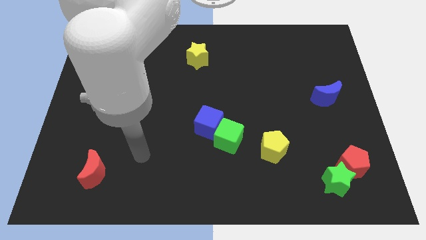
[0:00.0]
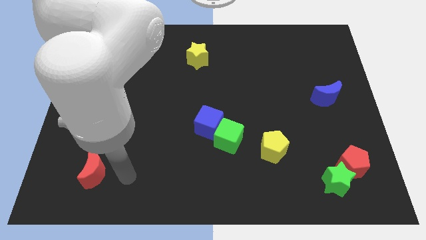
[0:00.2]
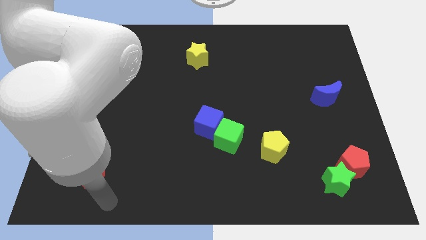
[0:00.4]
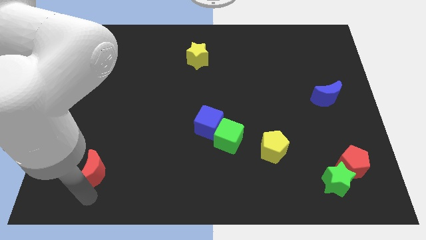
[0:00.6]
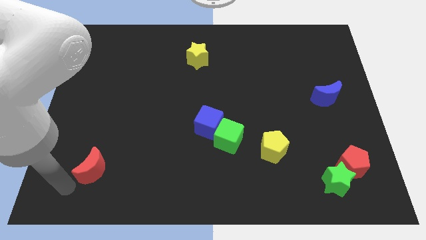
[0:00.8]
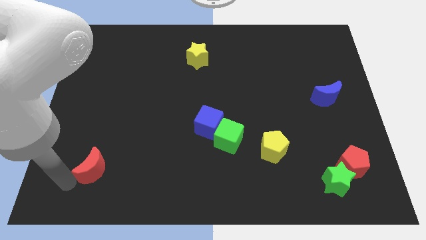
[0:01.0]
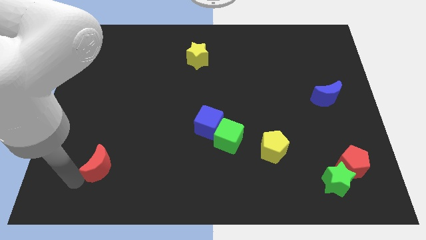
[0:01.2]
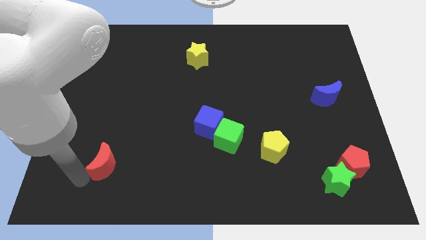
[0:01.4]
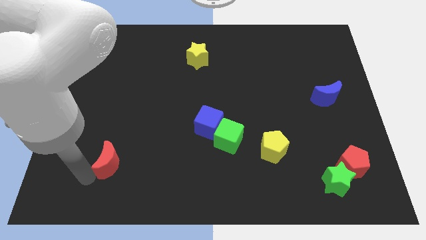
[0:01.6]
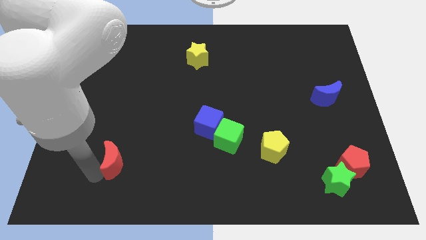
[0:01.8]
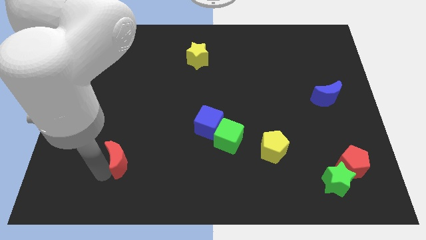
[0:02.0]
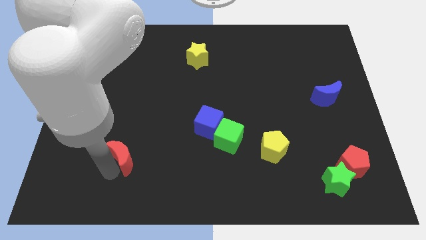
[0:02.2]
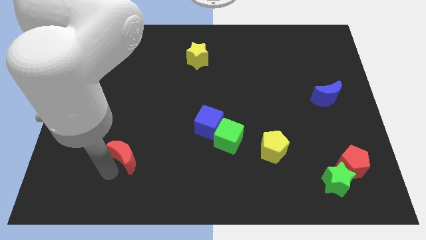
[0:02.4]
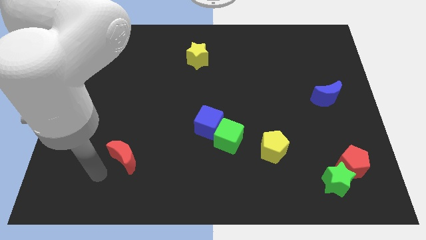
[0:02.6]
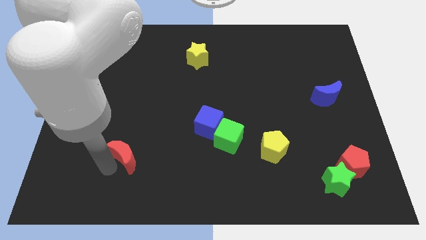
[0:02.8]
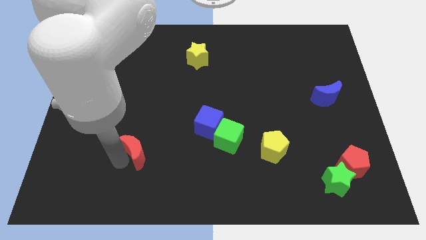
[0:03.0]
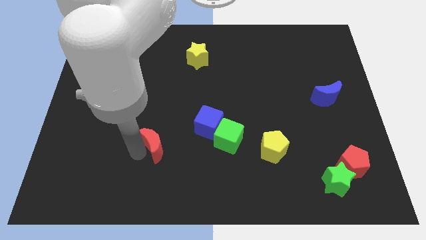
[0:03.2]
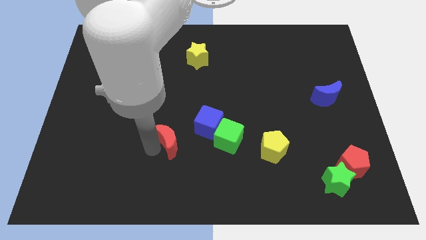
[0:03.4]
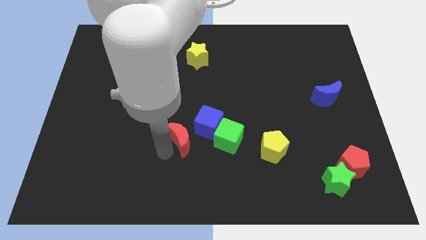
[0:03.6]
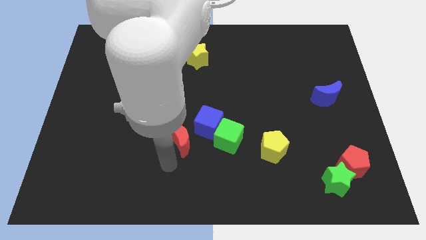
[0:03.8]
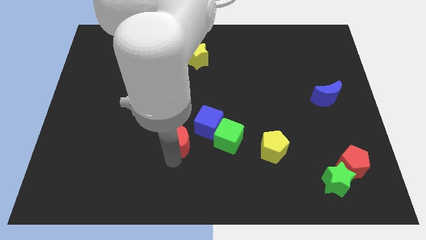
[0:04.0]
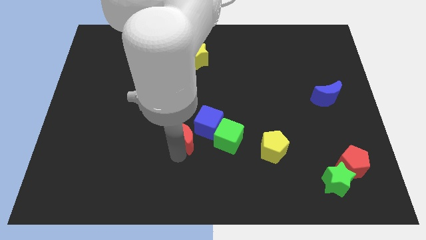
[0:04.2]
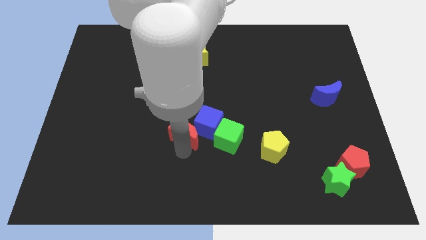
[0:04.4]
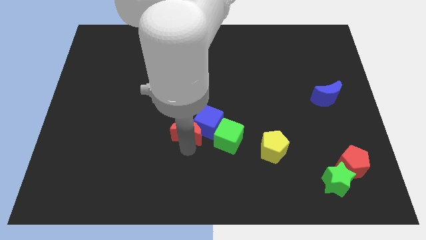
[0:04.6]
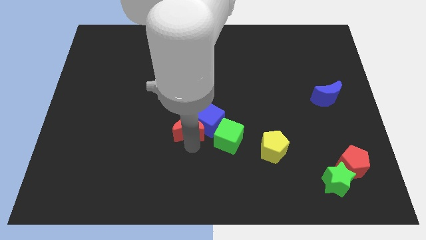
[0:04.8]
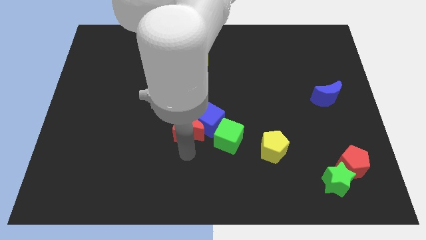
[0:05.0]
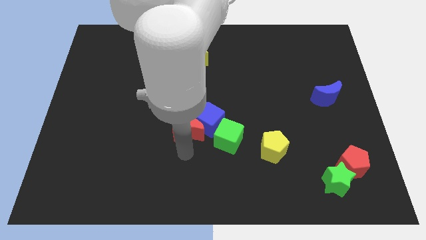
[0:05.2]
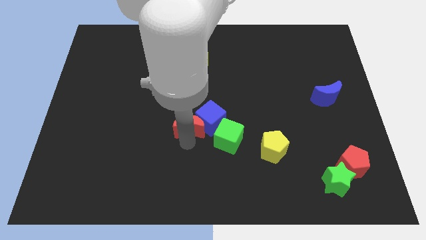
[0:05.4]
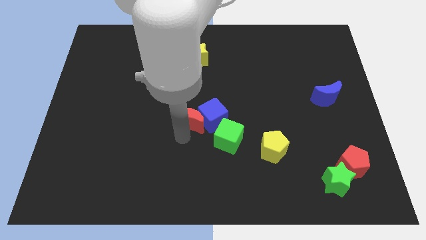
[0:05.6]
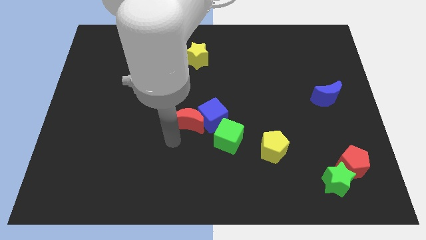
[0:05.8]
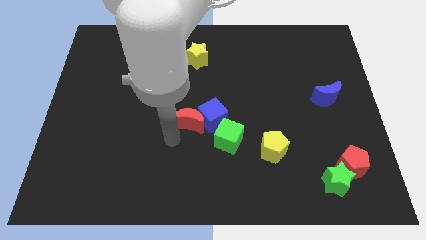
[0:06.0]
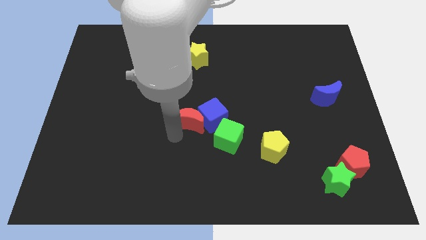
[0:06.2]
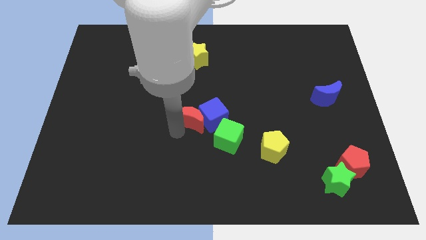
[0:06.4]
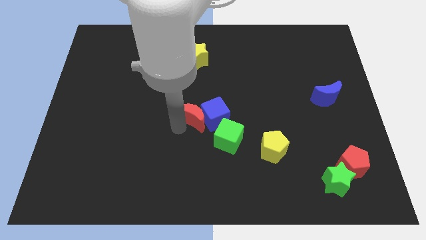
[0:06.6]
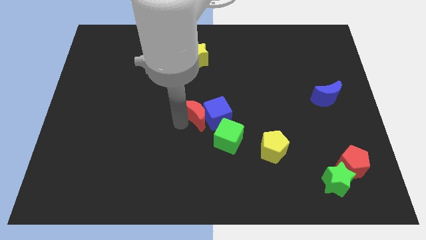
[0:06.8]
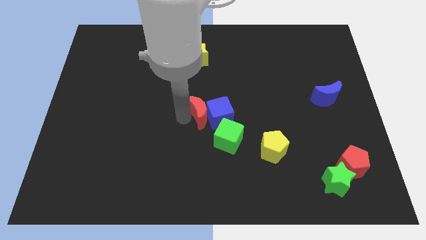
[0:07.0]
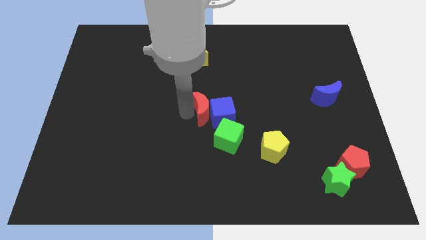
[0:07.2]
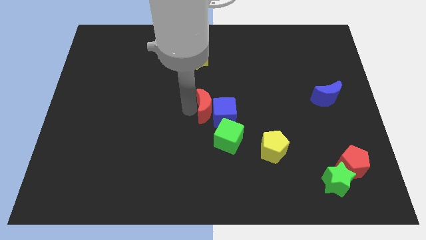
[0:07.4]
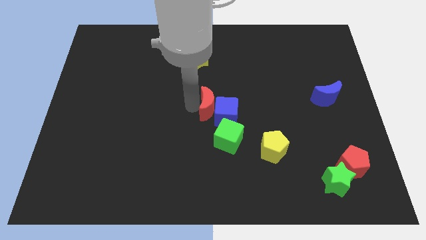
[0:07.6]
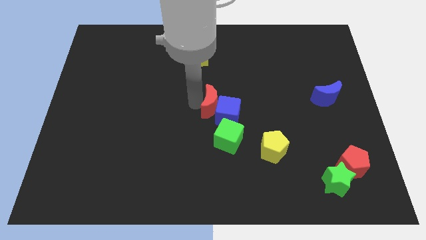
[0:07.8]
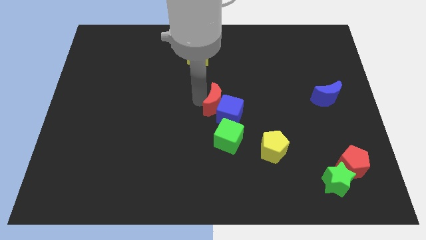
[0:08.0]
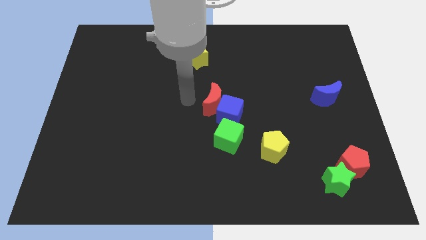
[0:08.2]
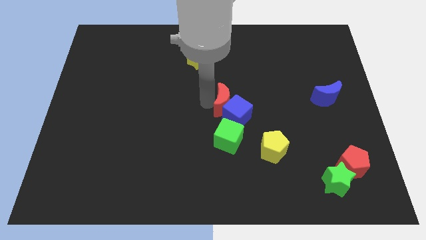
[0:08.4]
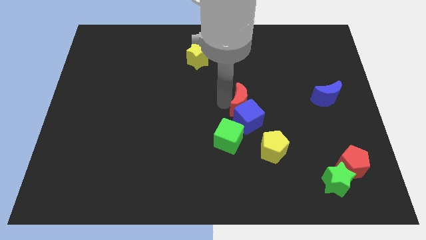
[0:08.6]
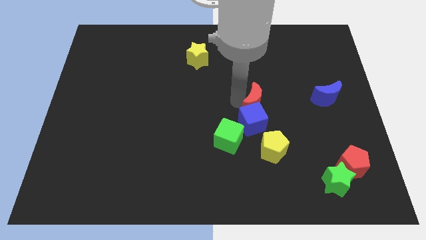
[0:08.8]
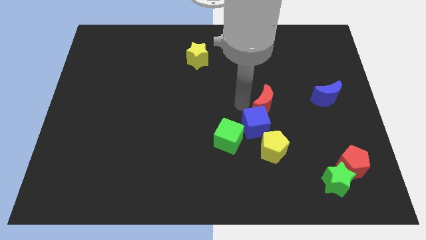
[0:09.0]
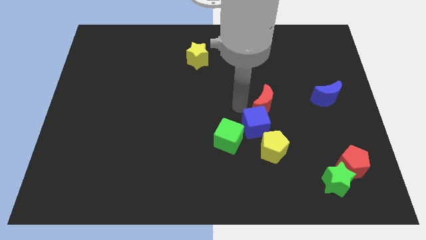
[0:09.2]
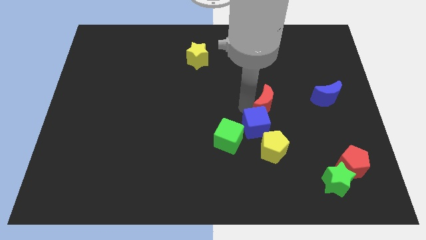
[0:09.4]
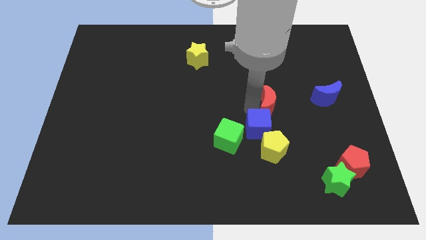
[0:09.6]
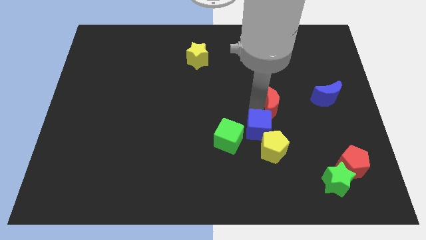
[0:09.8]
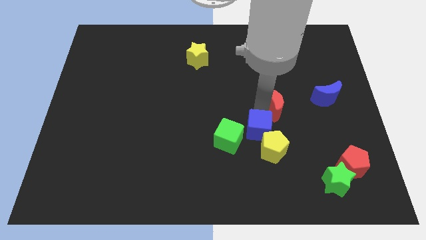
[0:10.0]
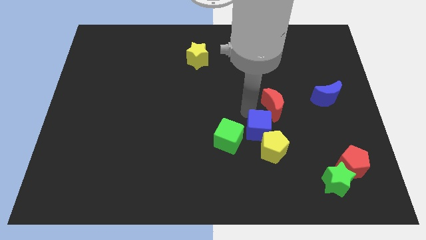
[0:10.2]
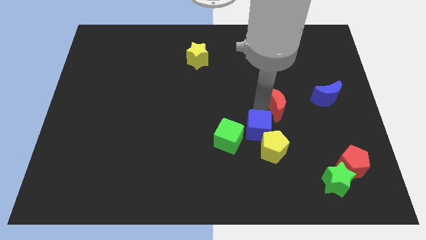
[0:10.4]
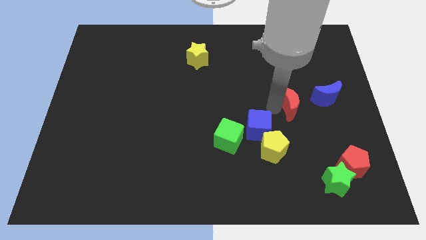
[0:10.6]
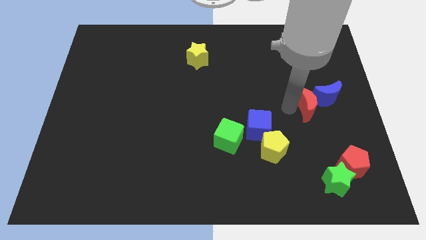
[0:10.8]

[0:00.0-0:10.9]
slide the red moon close to the blue moon

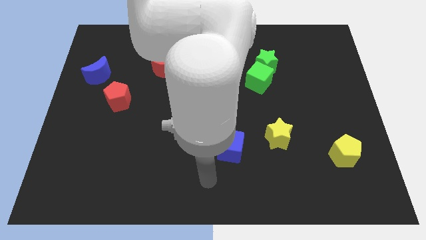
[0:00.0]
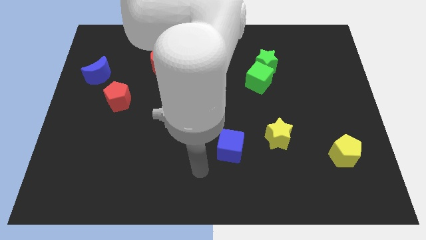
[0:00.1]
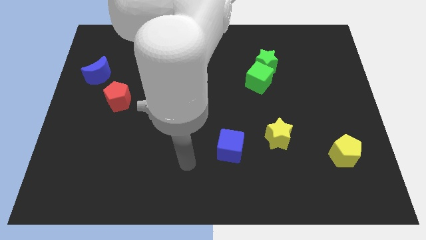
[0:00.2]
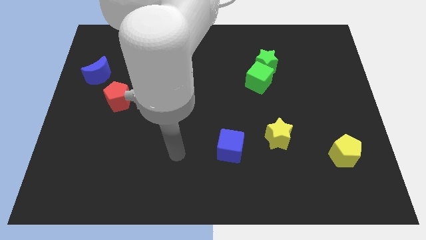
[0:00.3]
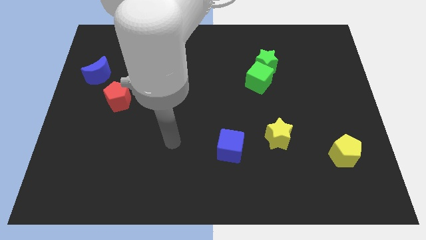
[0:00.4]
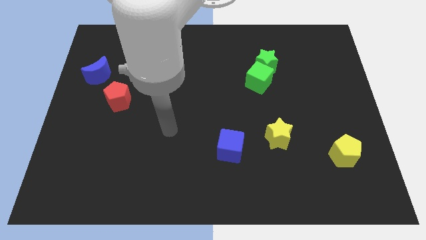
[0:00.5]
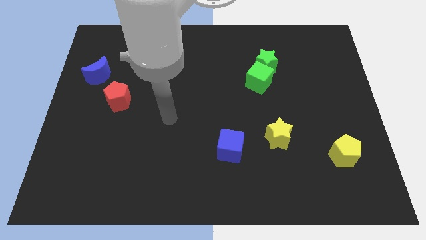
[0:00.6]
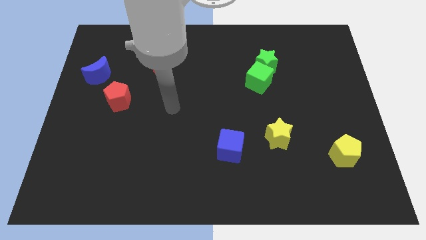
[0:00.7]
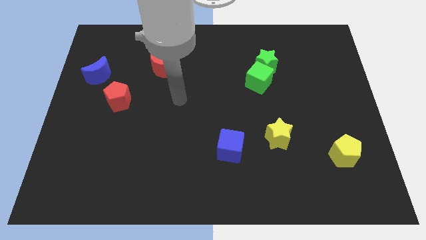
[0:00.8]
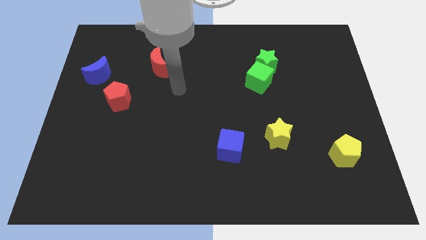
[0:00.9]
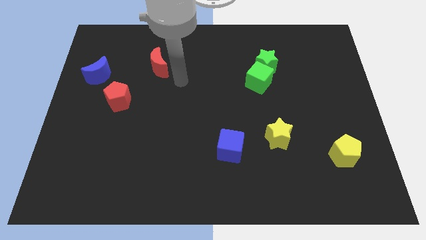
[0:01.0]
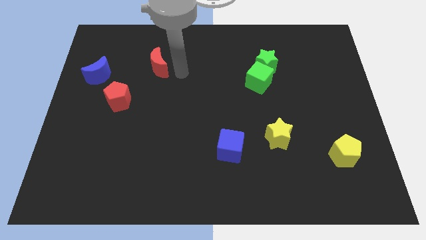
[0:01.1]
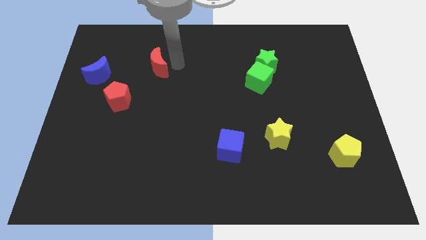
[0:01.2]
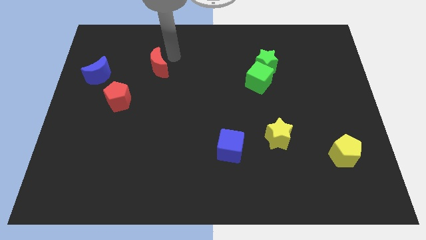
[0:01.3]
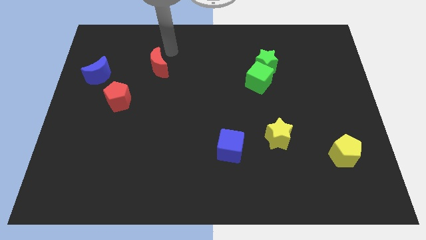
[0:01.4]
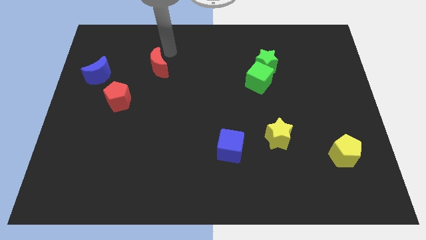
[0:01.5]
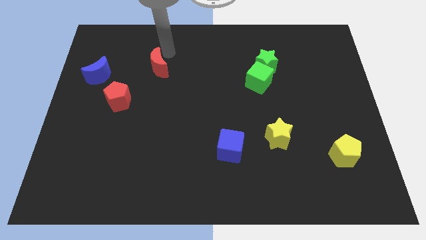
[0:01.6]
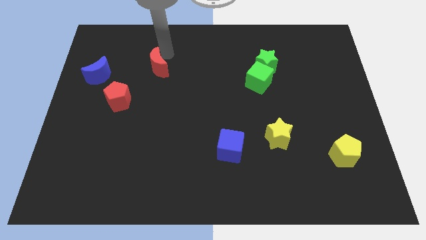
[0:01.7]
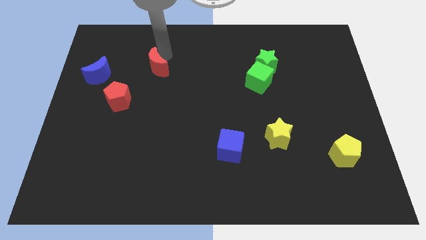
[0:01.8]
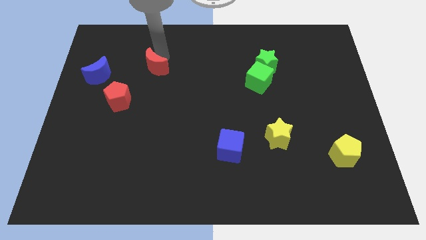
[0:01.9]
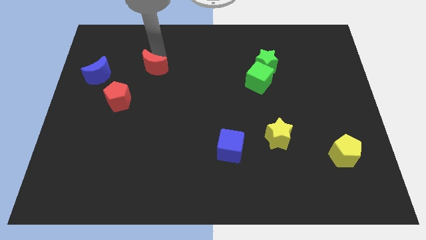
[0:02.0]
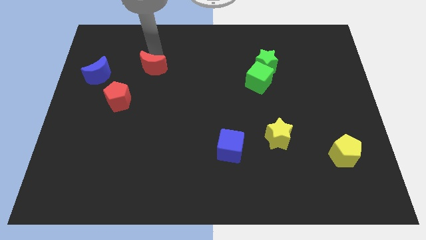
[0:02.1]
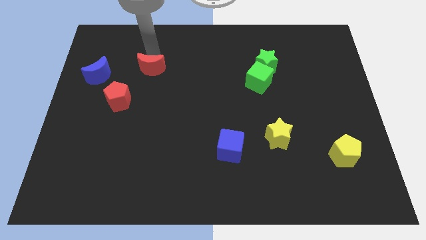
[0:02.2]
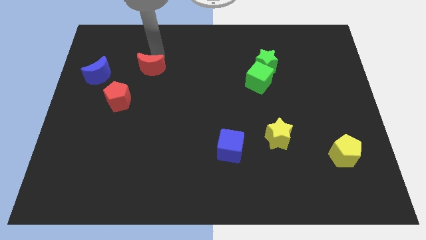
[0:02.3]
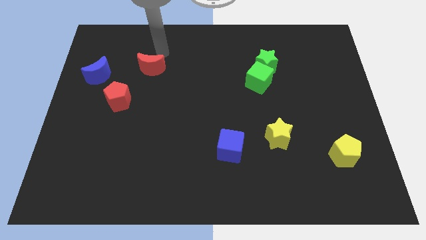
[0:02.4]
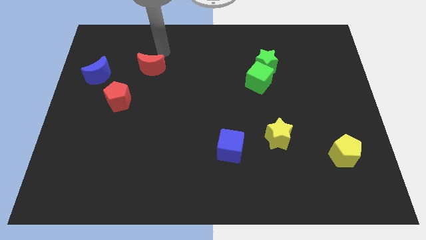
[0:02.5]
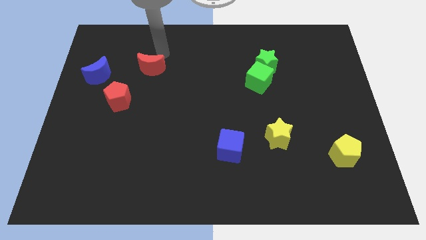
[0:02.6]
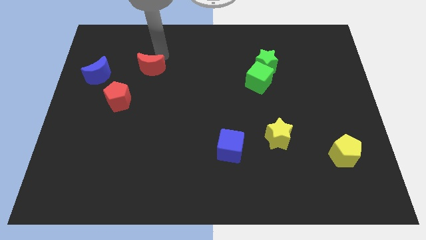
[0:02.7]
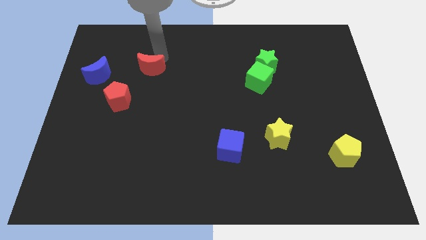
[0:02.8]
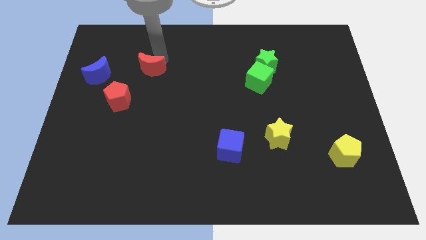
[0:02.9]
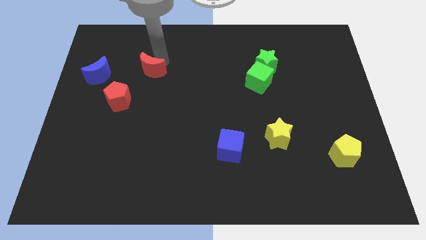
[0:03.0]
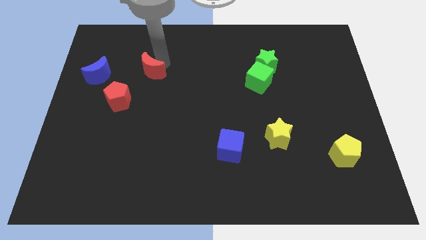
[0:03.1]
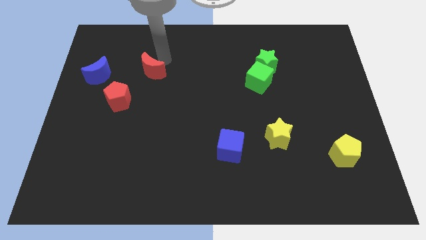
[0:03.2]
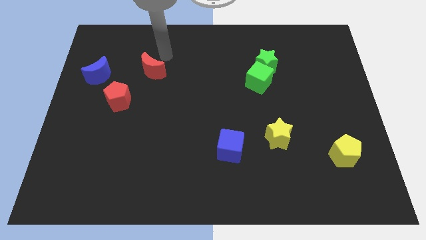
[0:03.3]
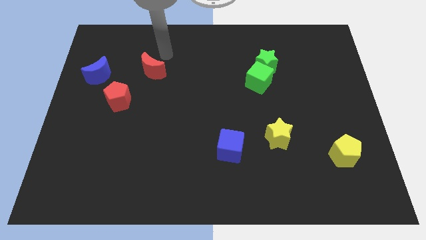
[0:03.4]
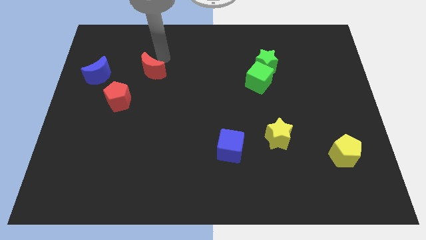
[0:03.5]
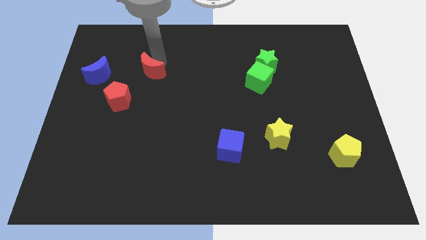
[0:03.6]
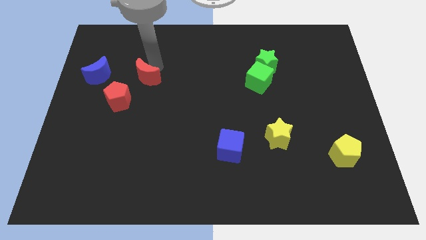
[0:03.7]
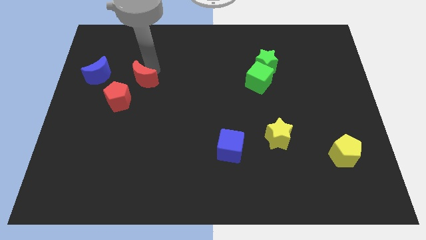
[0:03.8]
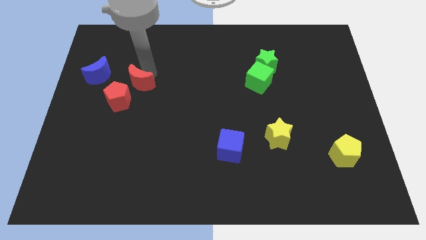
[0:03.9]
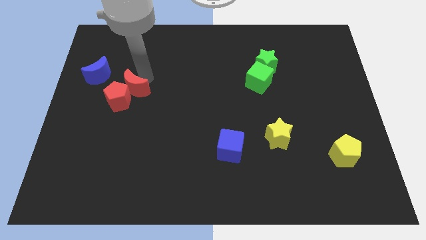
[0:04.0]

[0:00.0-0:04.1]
move the red moon next to the red pentagon
